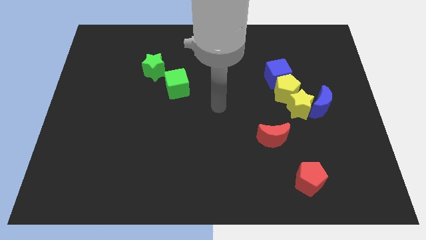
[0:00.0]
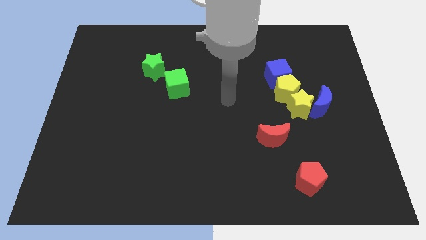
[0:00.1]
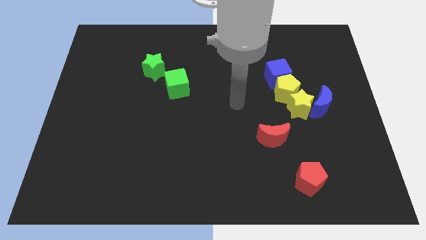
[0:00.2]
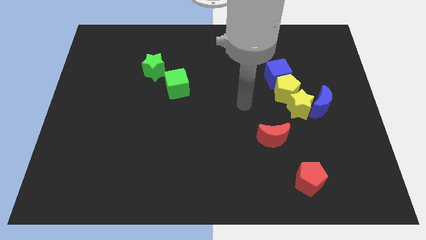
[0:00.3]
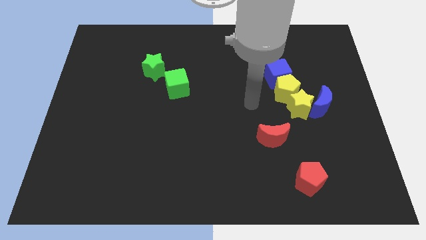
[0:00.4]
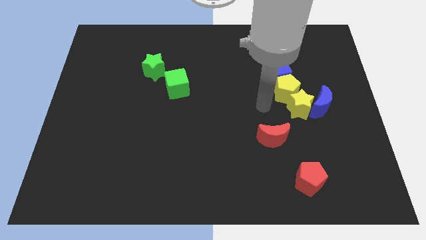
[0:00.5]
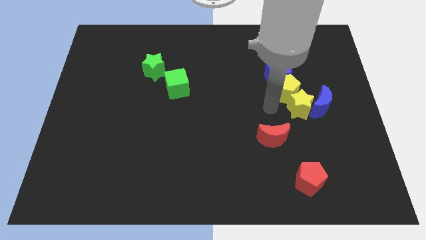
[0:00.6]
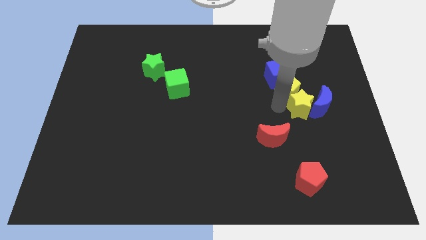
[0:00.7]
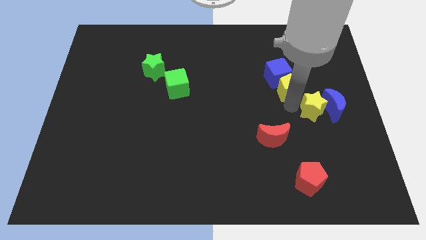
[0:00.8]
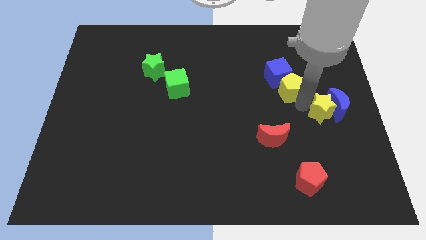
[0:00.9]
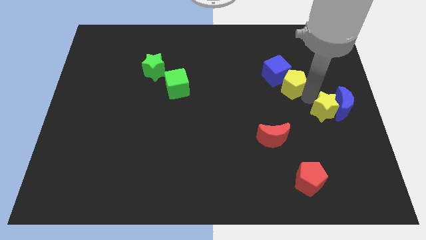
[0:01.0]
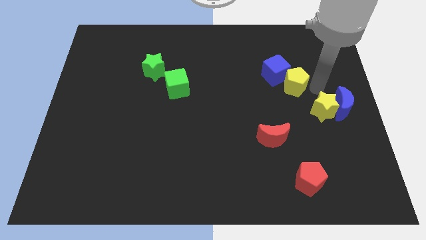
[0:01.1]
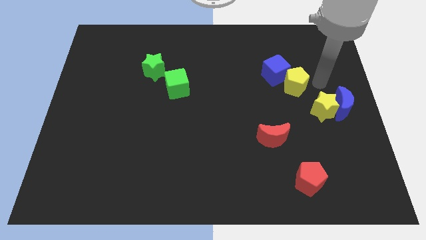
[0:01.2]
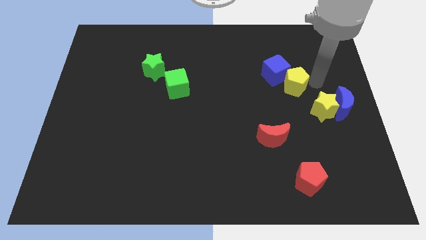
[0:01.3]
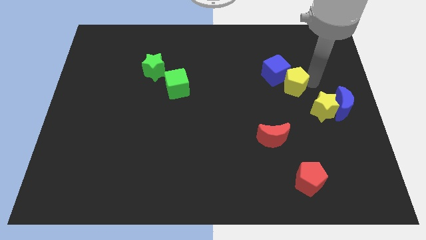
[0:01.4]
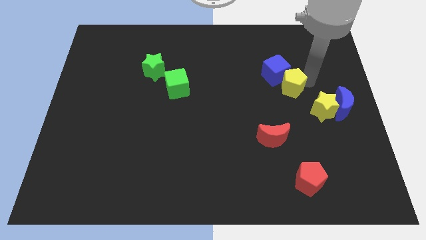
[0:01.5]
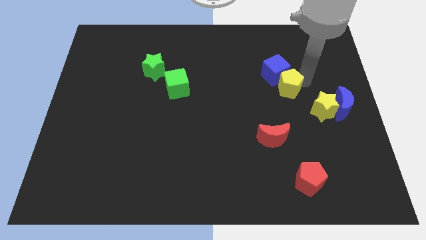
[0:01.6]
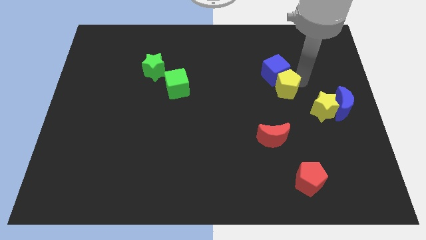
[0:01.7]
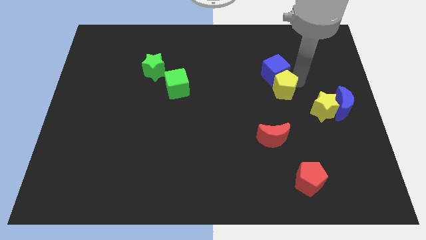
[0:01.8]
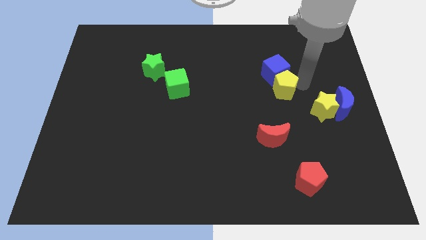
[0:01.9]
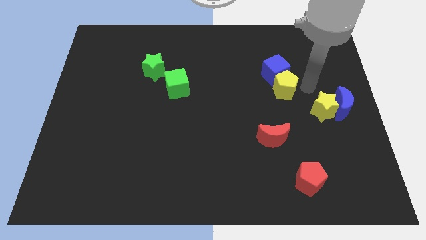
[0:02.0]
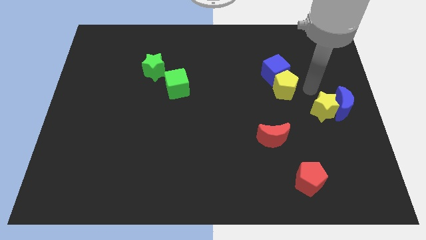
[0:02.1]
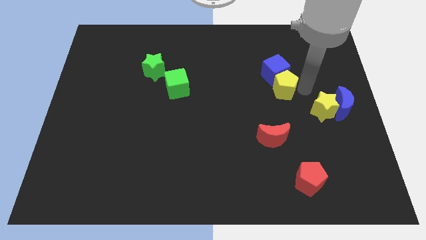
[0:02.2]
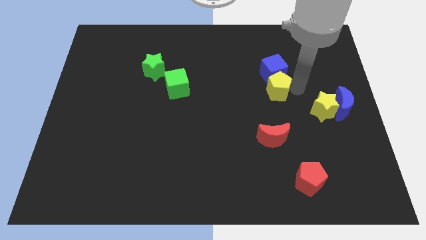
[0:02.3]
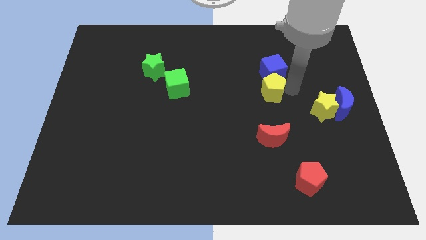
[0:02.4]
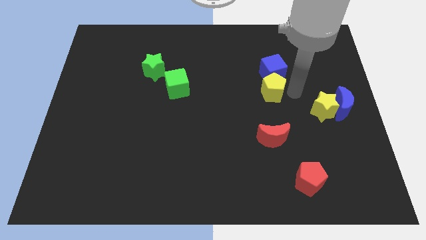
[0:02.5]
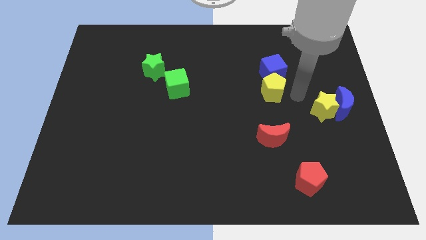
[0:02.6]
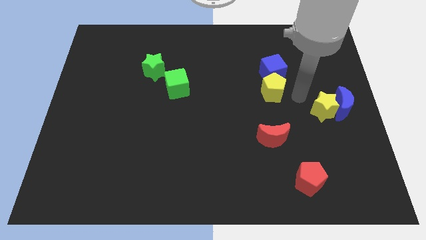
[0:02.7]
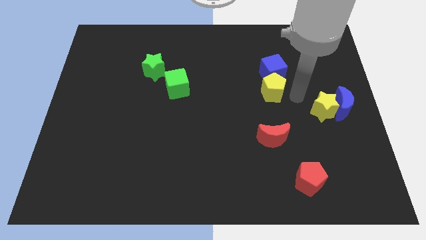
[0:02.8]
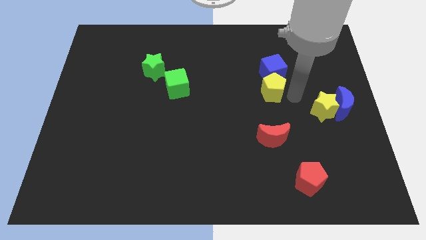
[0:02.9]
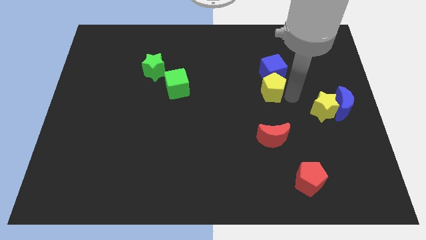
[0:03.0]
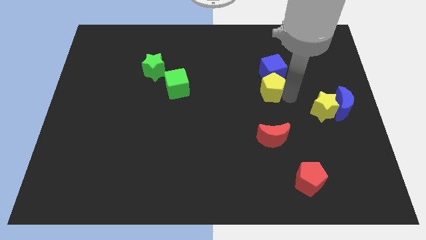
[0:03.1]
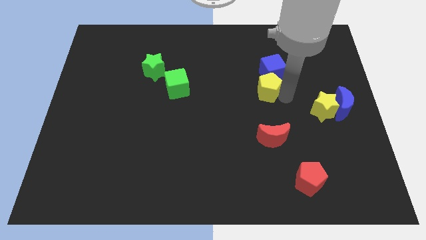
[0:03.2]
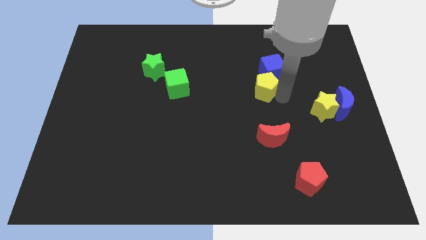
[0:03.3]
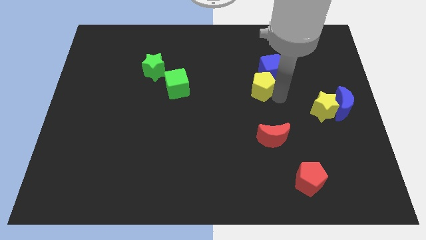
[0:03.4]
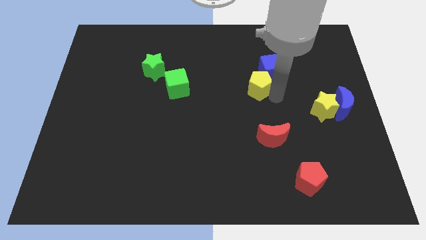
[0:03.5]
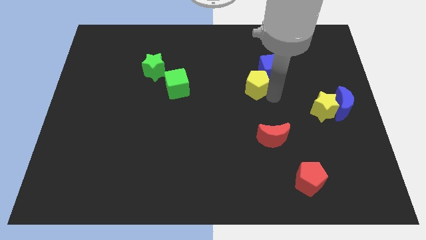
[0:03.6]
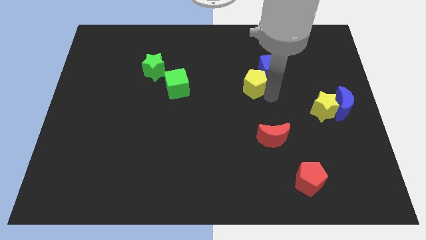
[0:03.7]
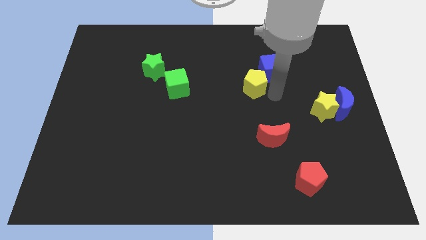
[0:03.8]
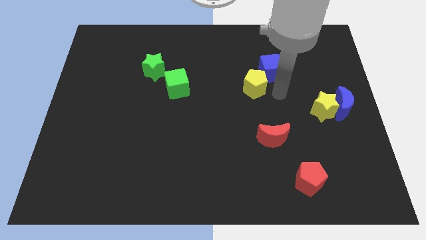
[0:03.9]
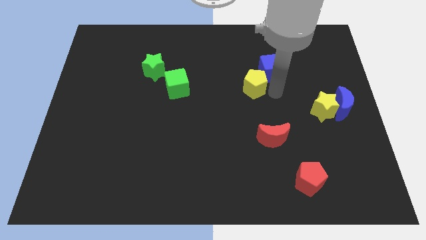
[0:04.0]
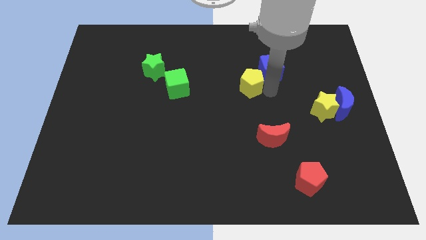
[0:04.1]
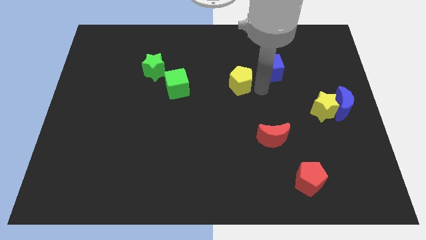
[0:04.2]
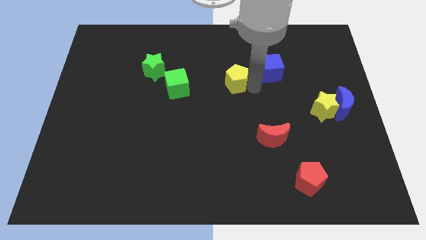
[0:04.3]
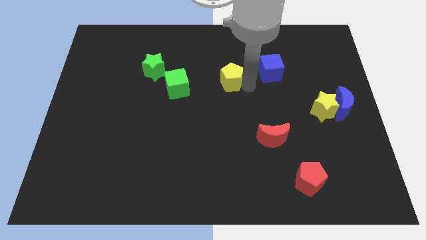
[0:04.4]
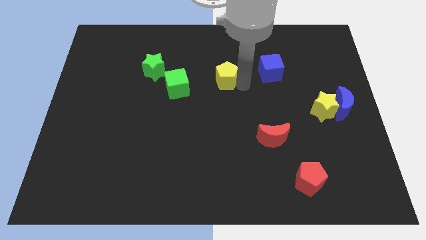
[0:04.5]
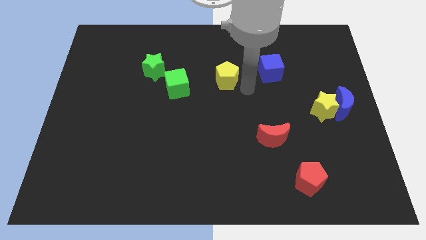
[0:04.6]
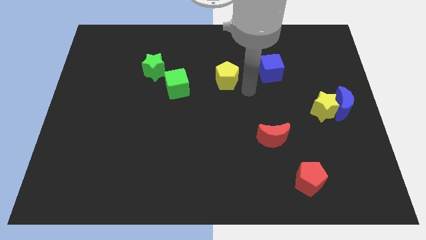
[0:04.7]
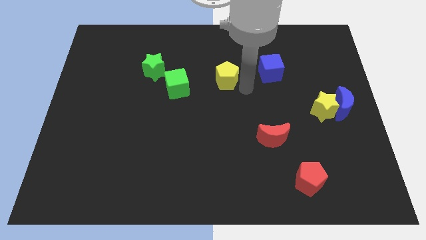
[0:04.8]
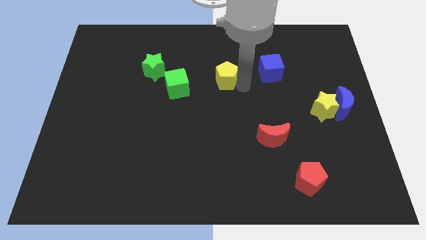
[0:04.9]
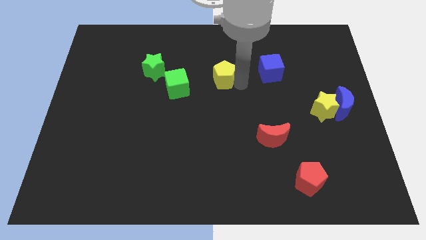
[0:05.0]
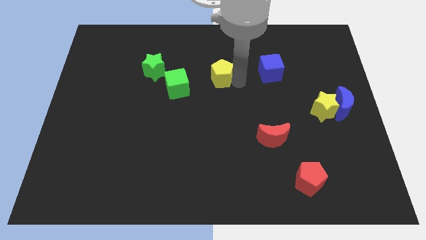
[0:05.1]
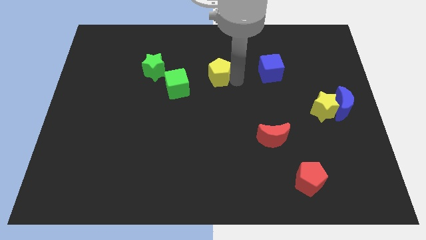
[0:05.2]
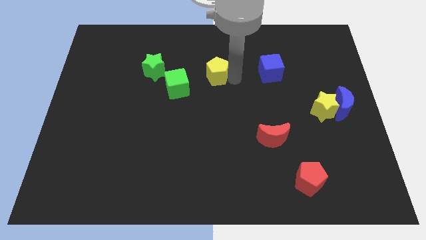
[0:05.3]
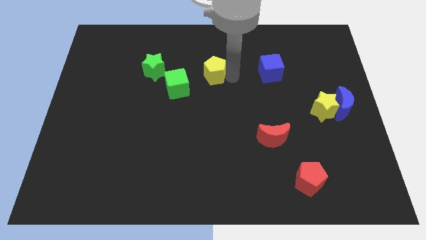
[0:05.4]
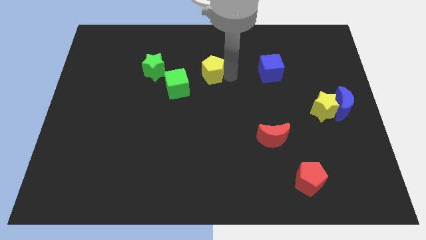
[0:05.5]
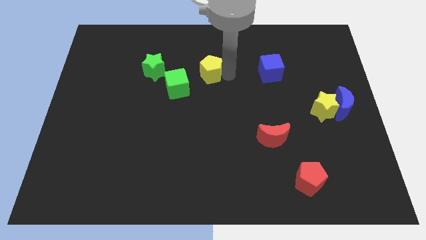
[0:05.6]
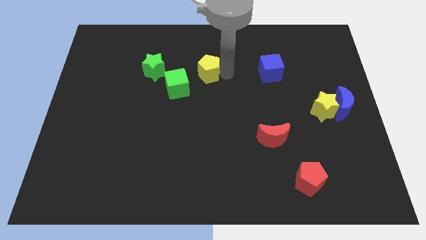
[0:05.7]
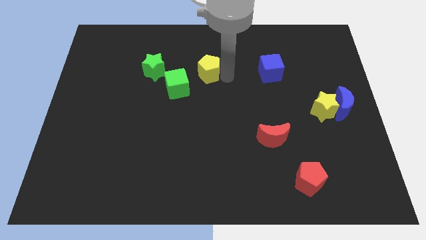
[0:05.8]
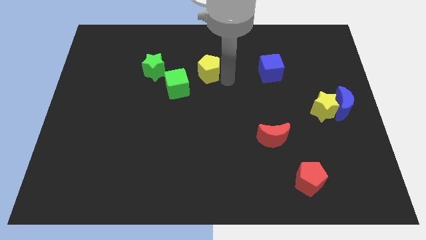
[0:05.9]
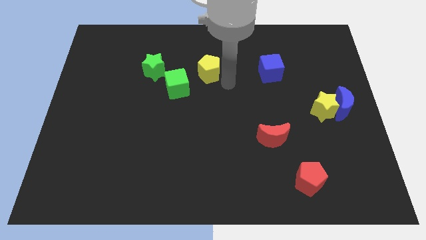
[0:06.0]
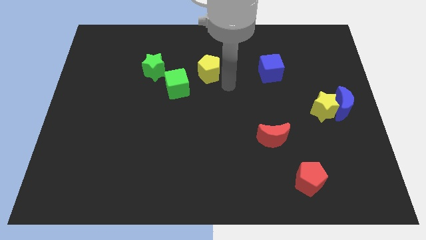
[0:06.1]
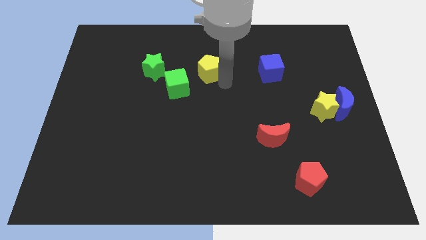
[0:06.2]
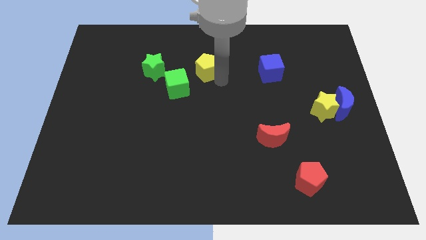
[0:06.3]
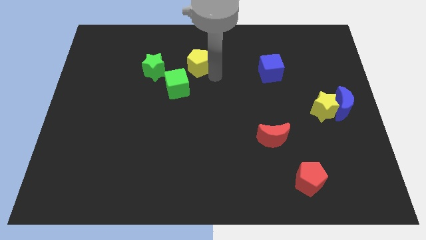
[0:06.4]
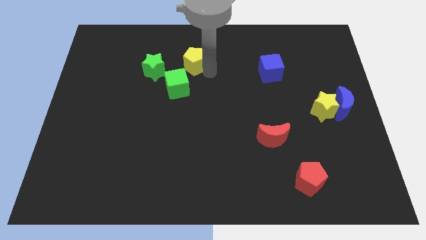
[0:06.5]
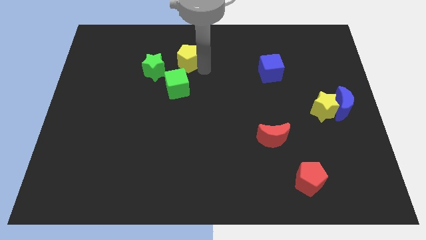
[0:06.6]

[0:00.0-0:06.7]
slide the yellow pentagon diagonally up and to the right of the green star

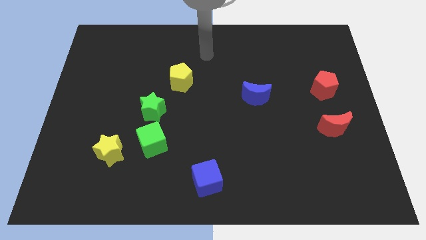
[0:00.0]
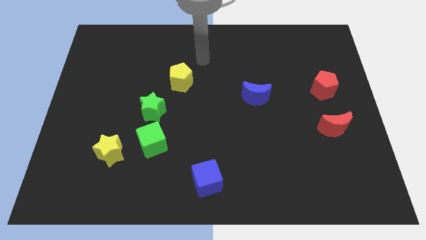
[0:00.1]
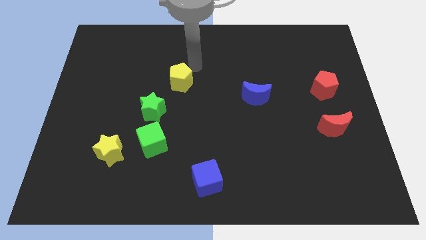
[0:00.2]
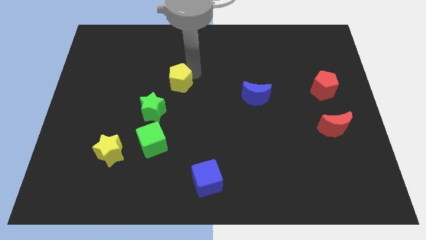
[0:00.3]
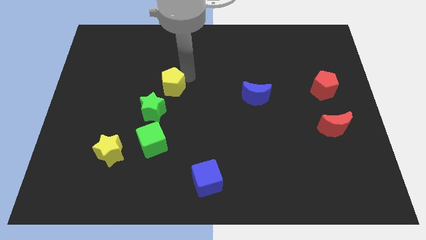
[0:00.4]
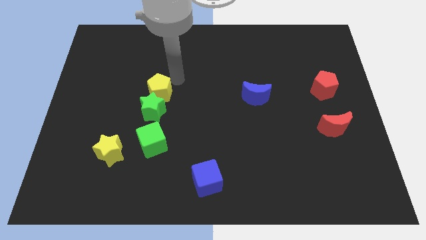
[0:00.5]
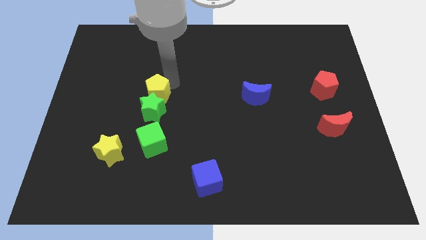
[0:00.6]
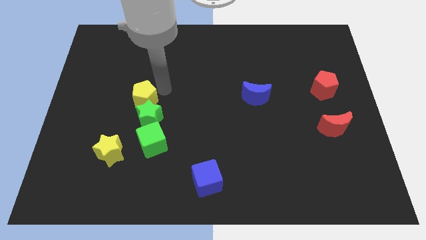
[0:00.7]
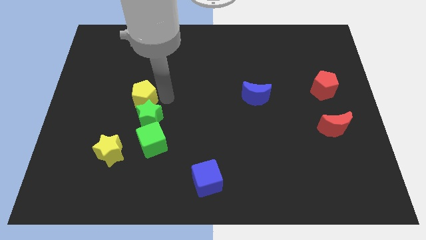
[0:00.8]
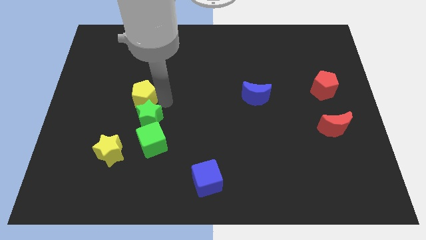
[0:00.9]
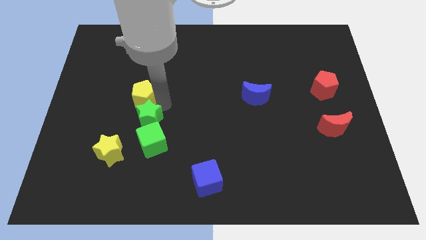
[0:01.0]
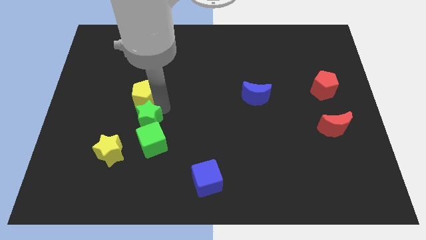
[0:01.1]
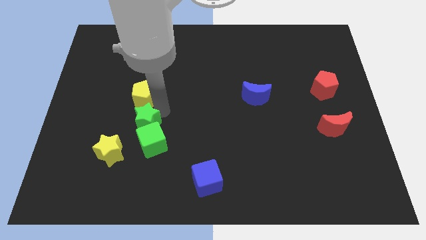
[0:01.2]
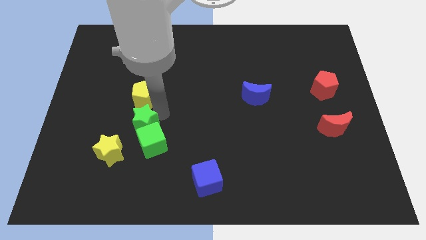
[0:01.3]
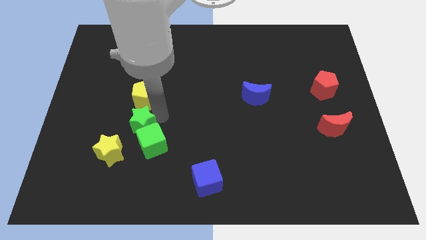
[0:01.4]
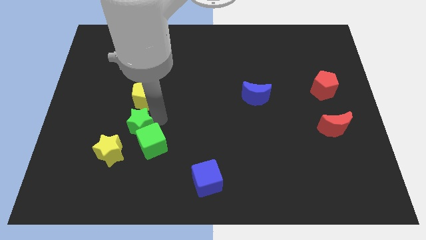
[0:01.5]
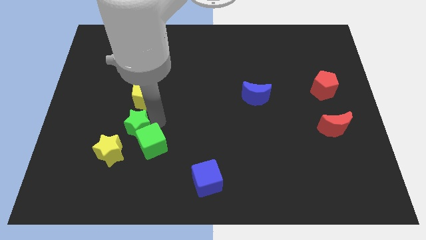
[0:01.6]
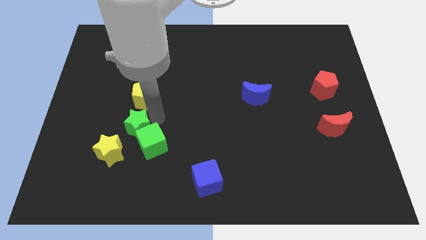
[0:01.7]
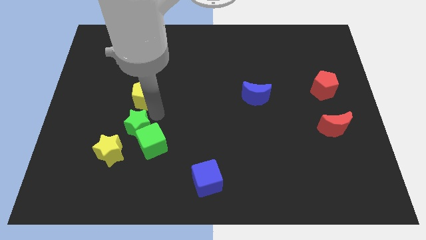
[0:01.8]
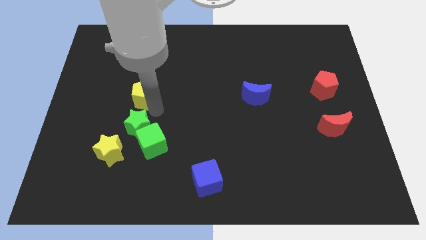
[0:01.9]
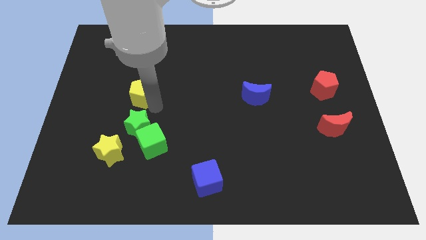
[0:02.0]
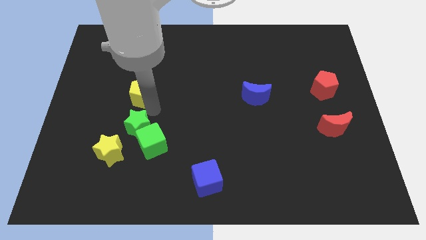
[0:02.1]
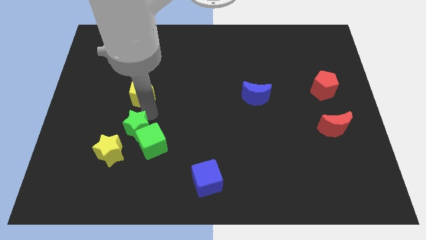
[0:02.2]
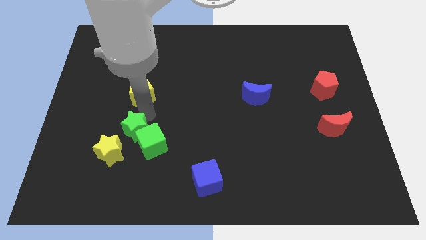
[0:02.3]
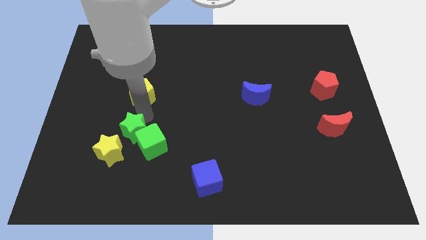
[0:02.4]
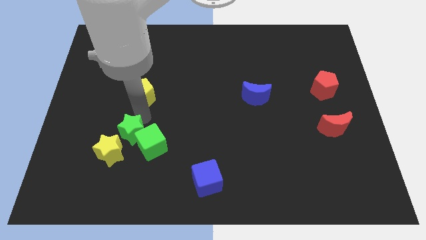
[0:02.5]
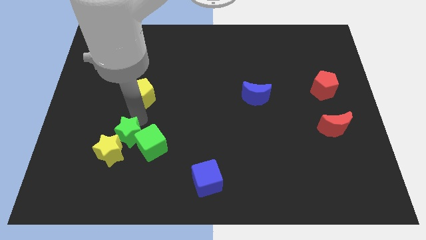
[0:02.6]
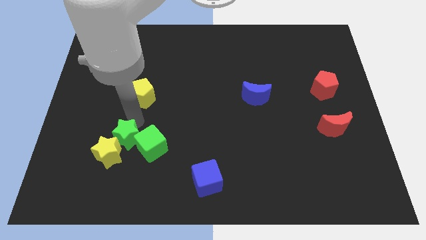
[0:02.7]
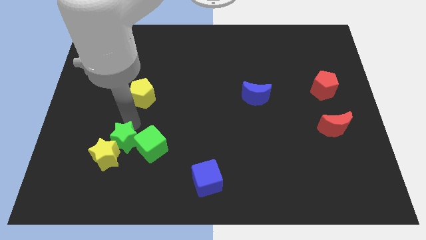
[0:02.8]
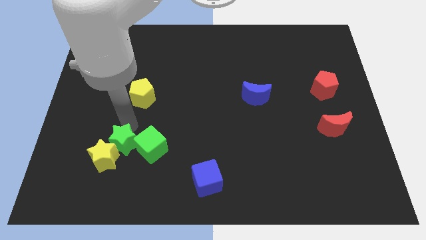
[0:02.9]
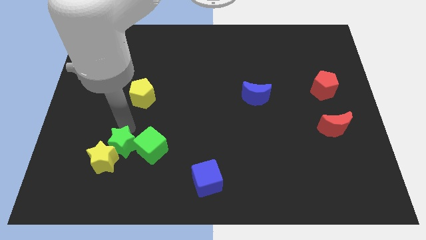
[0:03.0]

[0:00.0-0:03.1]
slide the green star diagonally down and to the left of the green cube
